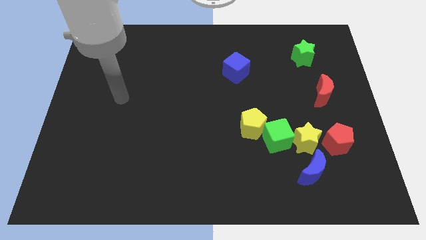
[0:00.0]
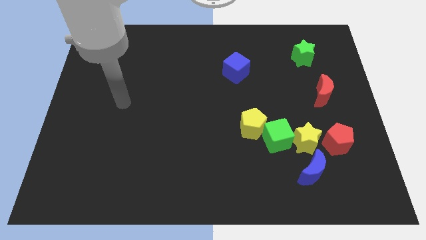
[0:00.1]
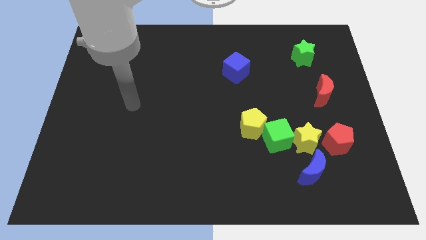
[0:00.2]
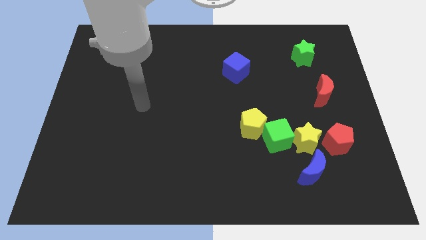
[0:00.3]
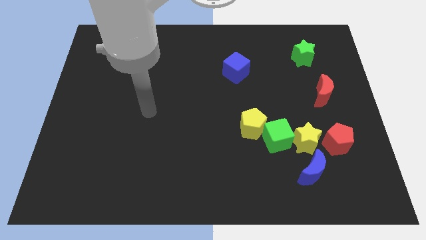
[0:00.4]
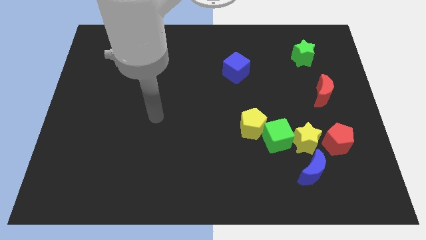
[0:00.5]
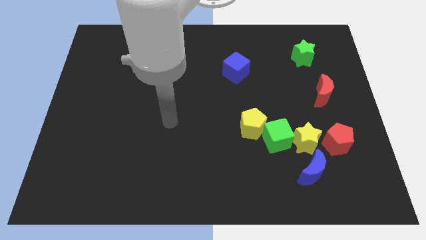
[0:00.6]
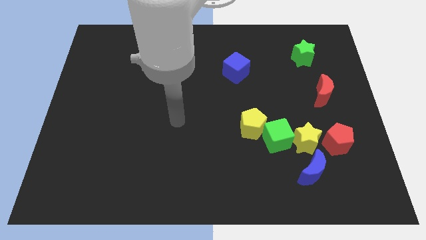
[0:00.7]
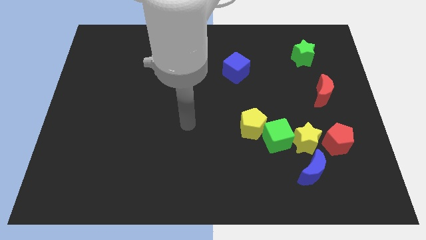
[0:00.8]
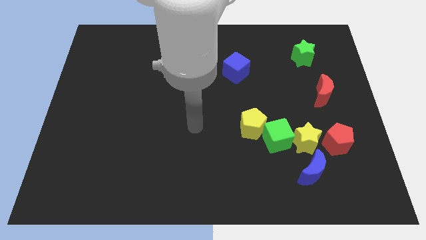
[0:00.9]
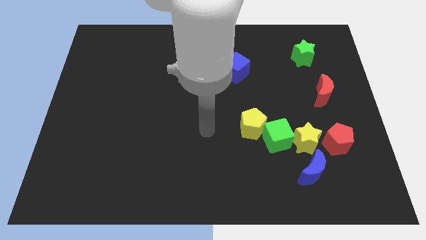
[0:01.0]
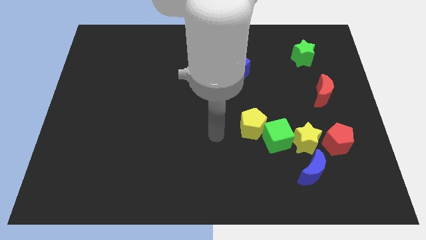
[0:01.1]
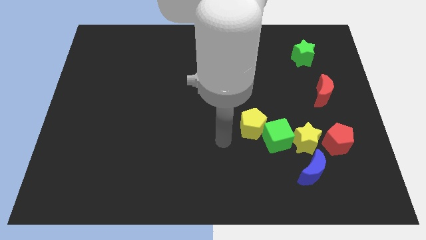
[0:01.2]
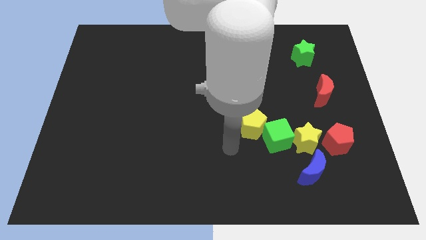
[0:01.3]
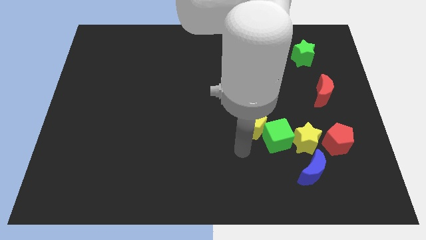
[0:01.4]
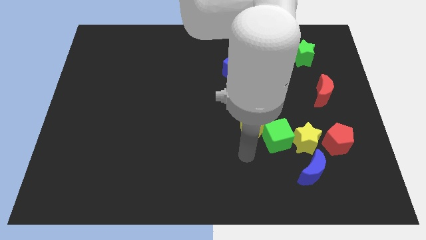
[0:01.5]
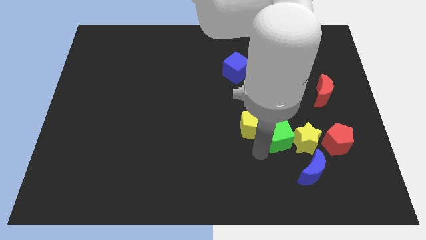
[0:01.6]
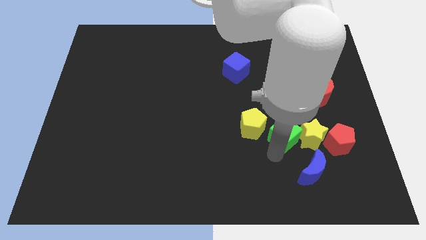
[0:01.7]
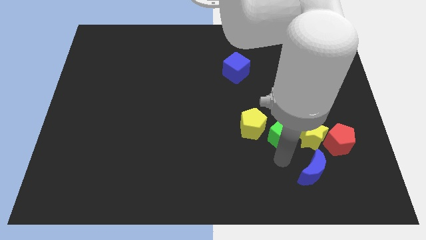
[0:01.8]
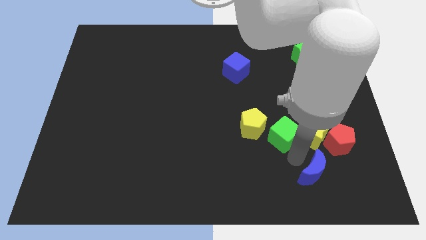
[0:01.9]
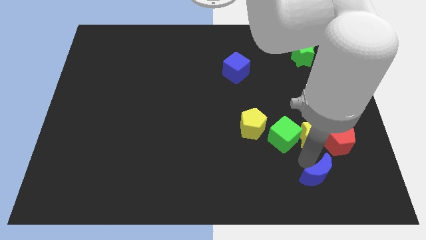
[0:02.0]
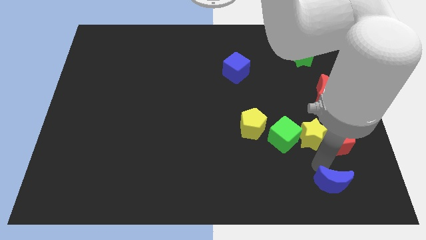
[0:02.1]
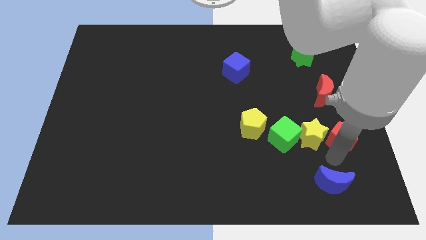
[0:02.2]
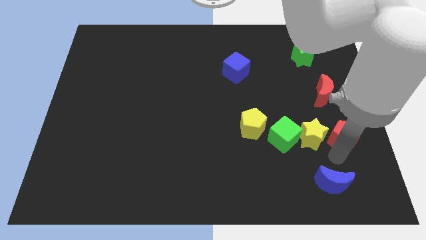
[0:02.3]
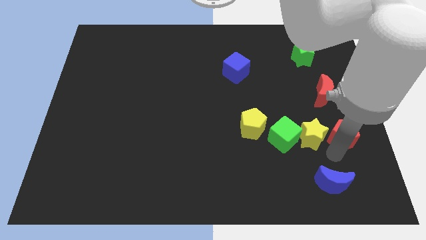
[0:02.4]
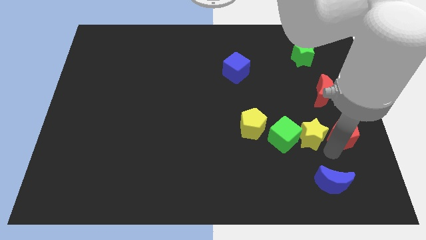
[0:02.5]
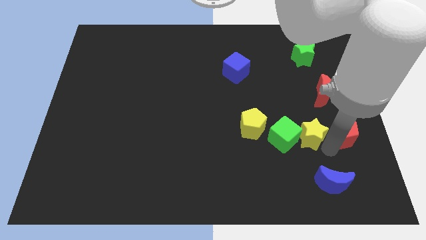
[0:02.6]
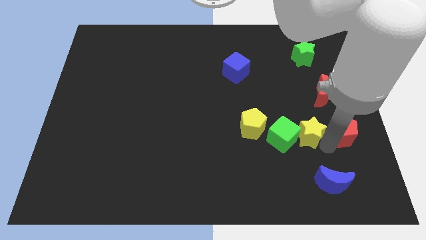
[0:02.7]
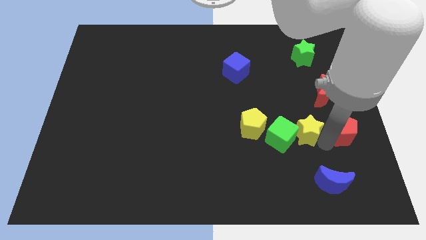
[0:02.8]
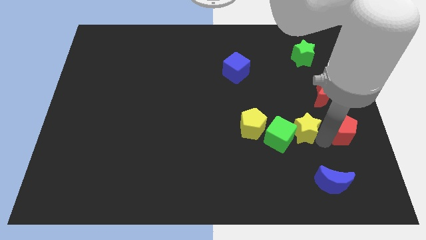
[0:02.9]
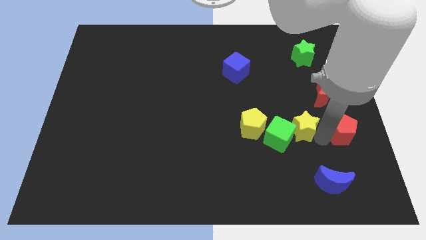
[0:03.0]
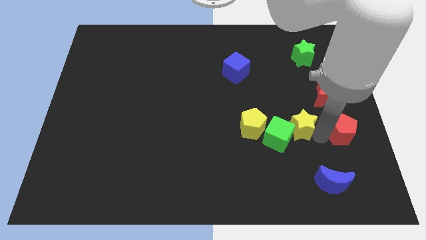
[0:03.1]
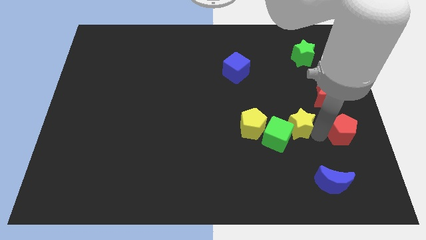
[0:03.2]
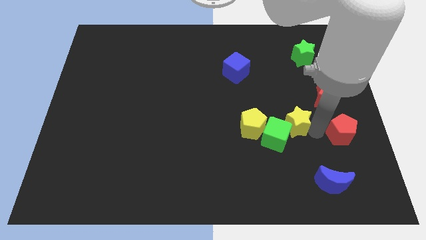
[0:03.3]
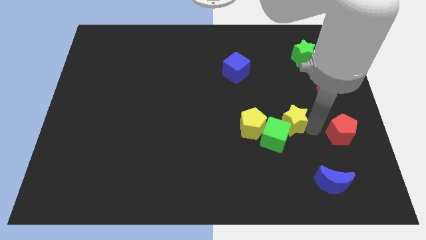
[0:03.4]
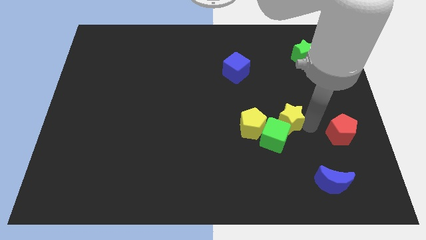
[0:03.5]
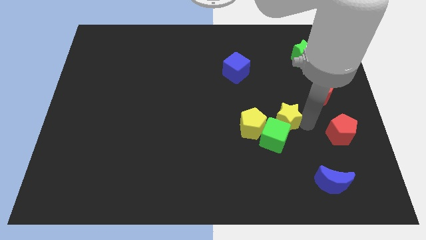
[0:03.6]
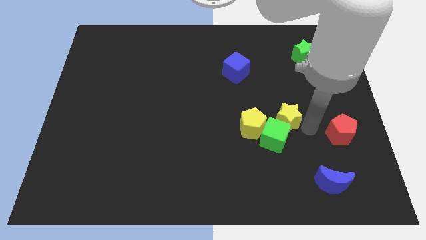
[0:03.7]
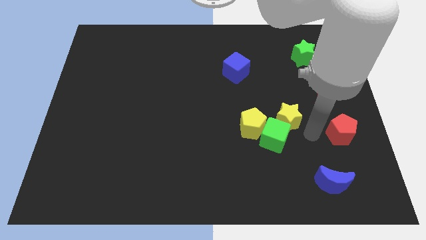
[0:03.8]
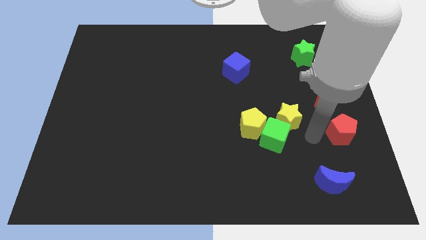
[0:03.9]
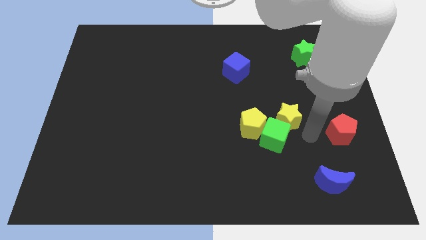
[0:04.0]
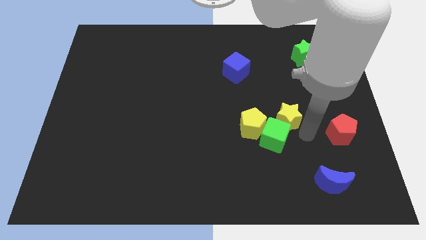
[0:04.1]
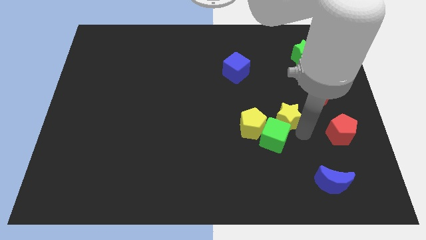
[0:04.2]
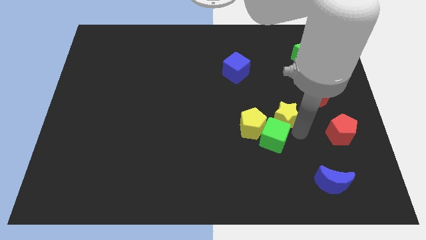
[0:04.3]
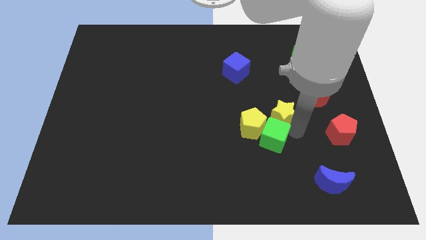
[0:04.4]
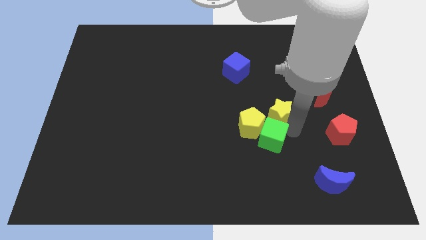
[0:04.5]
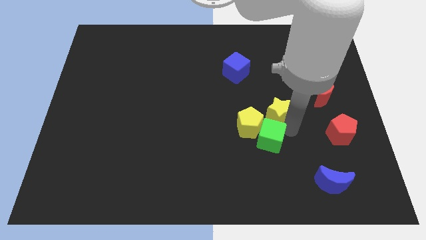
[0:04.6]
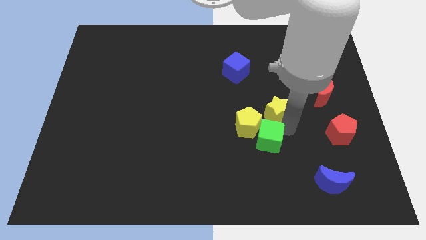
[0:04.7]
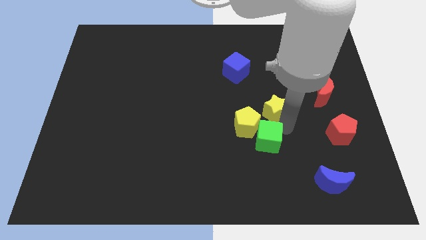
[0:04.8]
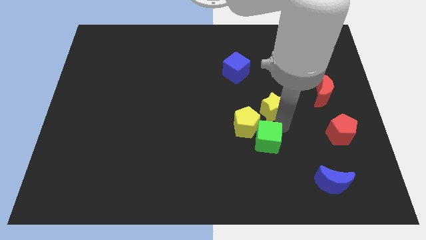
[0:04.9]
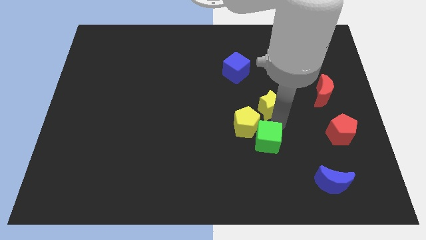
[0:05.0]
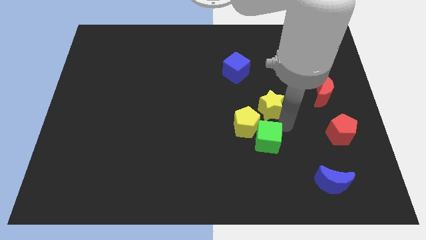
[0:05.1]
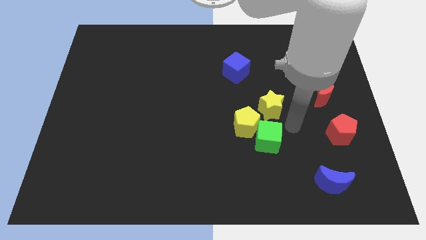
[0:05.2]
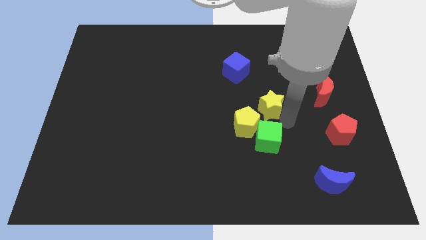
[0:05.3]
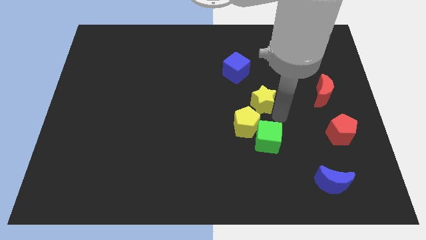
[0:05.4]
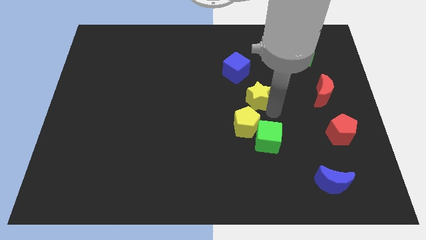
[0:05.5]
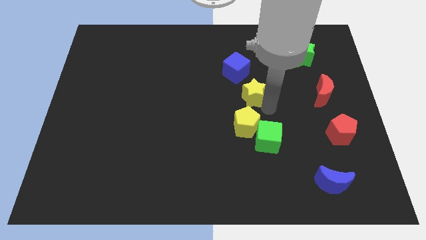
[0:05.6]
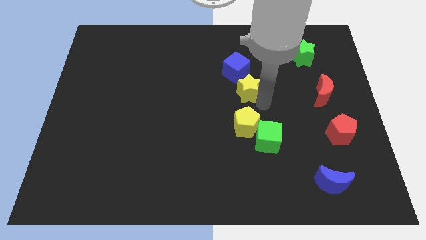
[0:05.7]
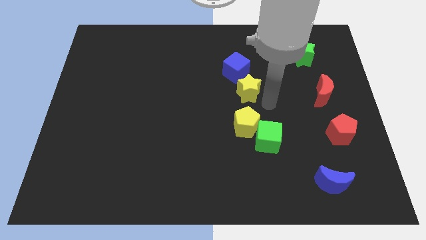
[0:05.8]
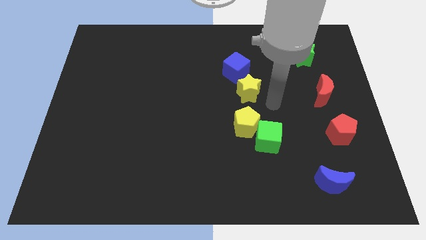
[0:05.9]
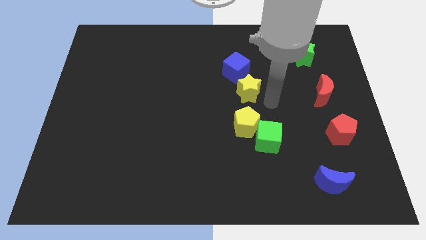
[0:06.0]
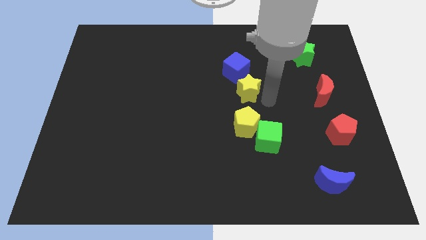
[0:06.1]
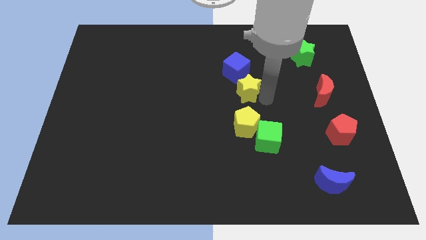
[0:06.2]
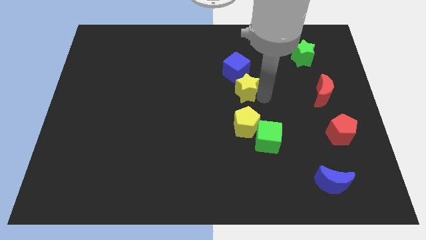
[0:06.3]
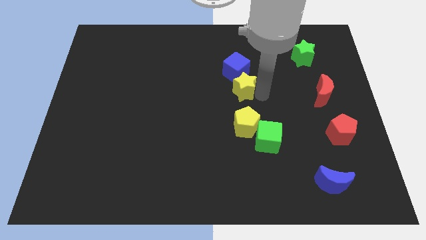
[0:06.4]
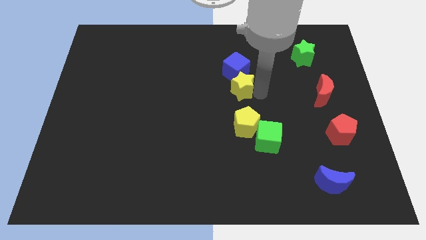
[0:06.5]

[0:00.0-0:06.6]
slide the yellow star up and left diagonally

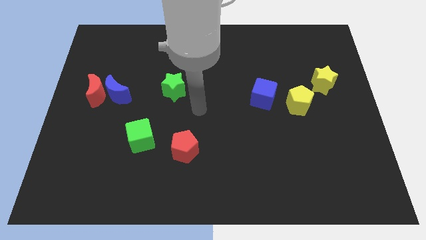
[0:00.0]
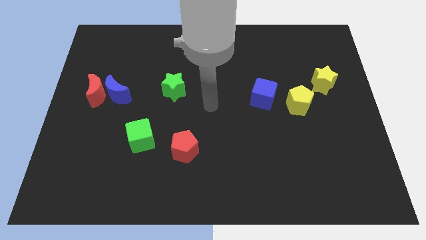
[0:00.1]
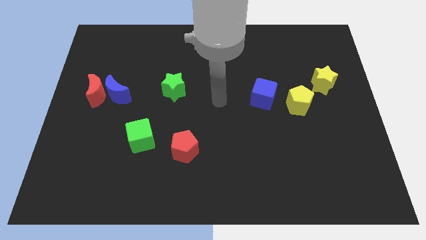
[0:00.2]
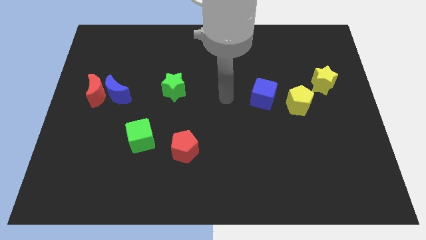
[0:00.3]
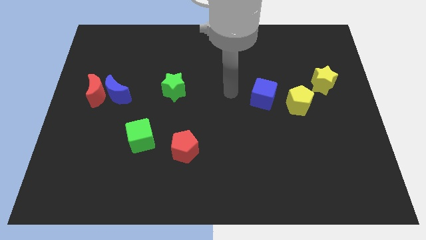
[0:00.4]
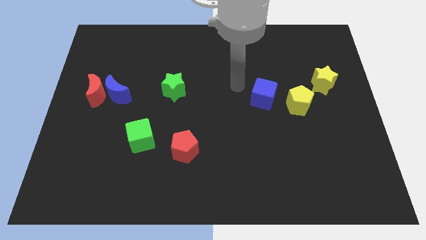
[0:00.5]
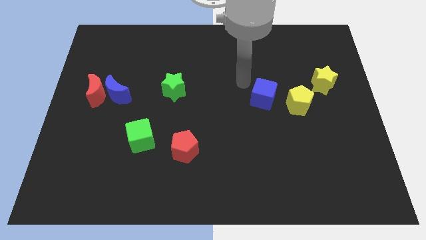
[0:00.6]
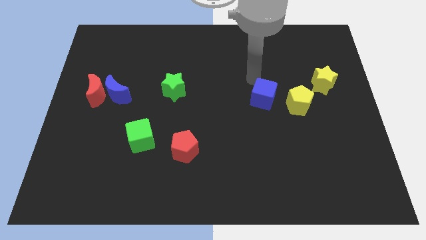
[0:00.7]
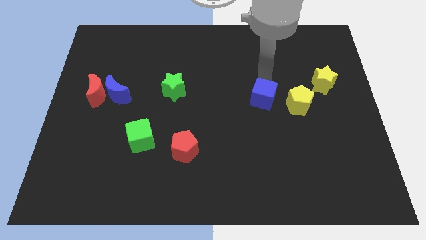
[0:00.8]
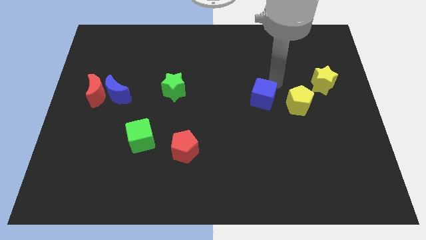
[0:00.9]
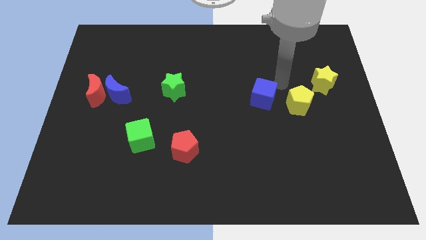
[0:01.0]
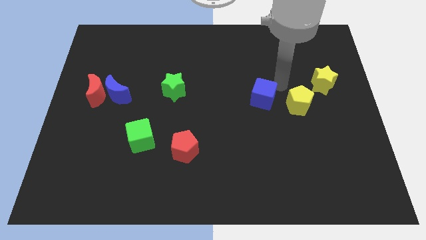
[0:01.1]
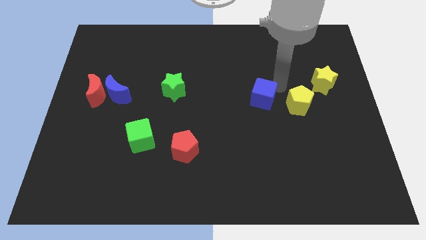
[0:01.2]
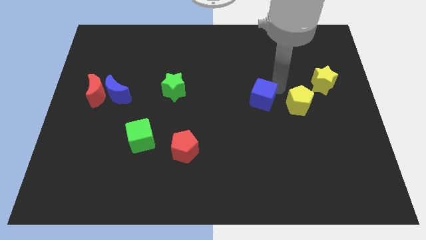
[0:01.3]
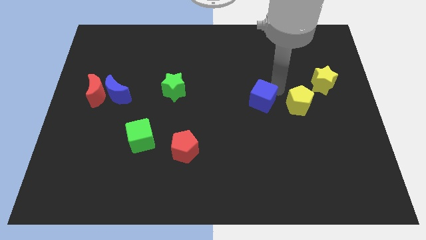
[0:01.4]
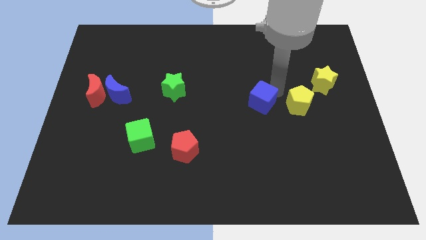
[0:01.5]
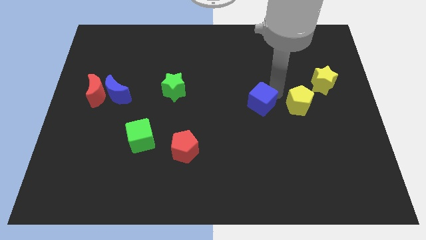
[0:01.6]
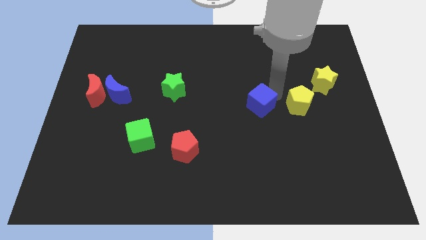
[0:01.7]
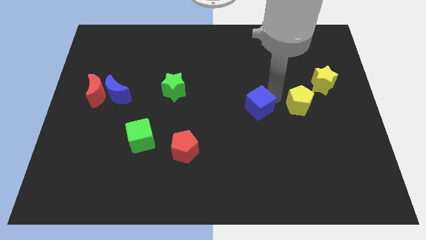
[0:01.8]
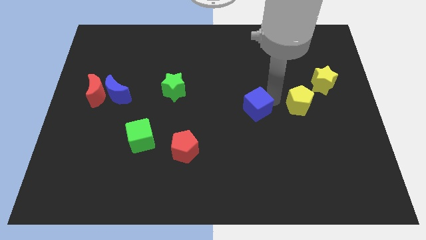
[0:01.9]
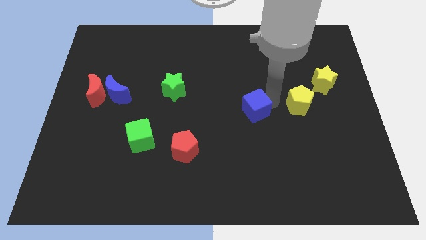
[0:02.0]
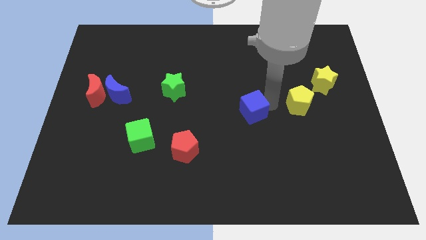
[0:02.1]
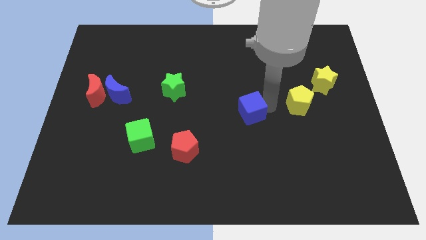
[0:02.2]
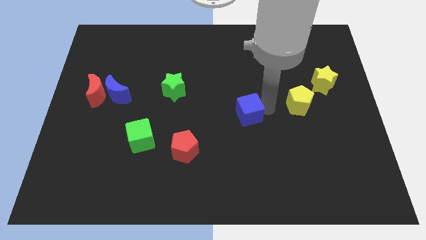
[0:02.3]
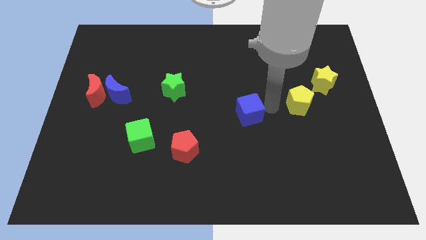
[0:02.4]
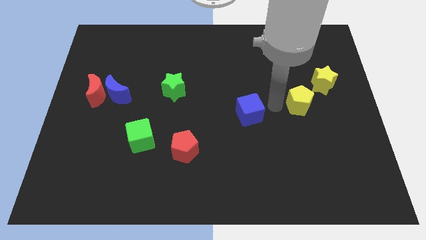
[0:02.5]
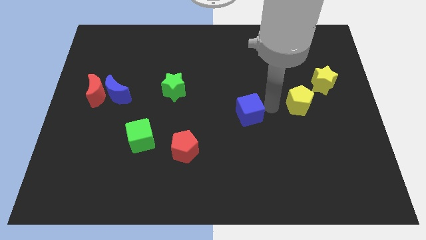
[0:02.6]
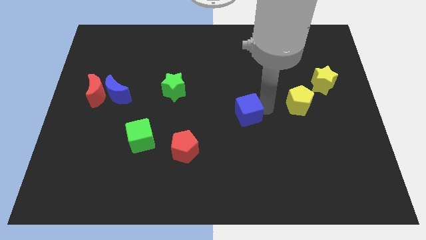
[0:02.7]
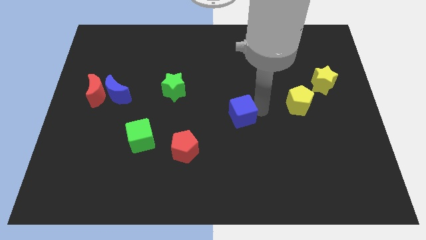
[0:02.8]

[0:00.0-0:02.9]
slide the blue cube a little diagonally downwards and left
